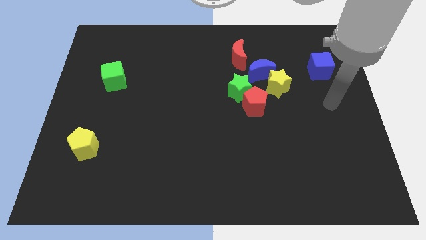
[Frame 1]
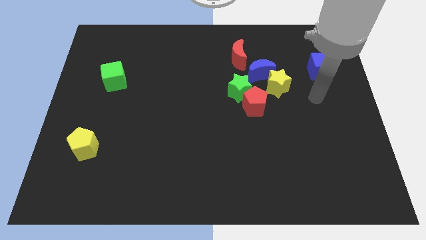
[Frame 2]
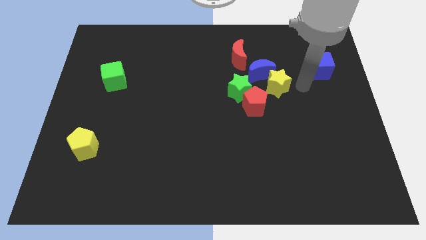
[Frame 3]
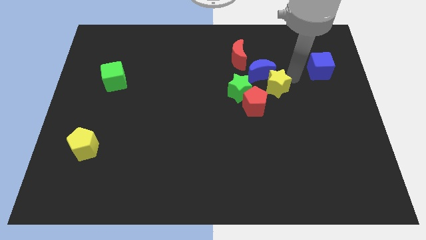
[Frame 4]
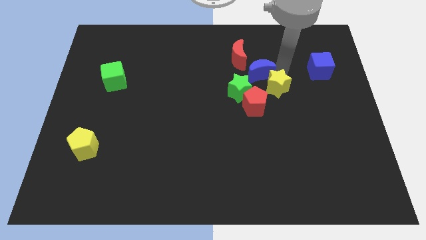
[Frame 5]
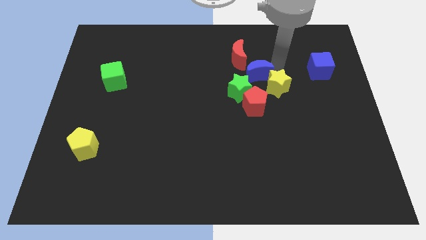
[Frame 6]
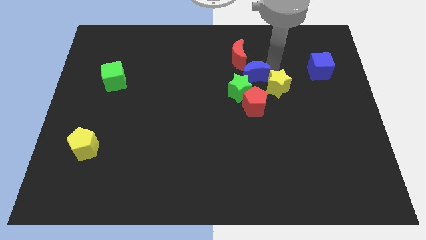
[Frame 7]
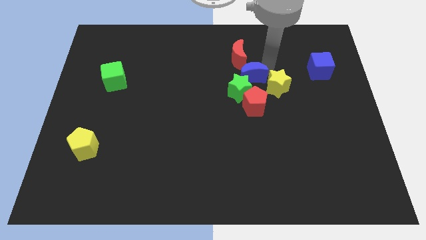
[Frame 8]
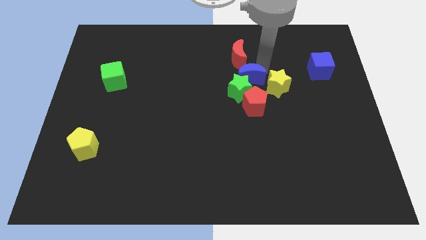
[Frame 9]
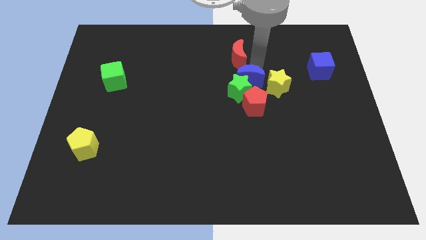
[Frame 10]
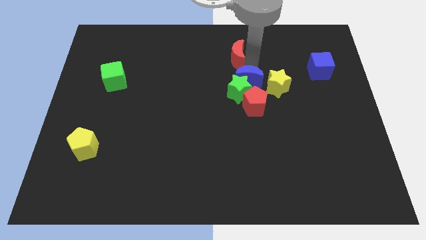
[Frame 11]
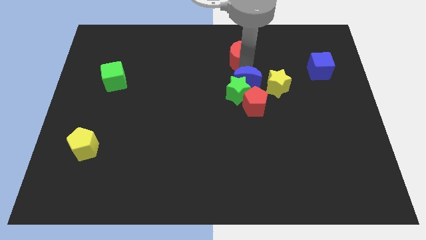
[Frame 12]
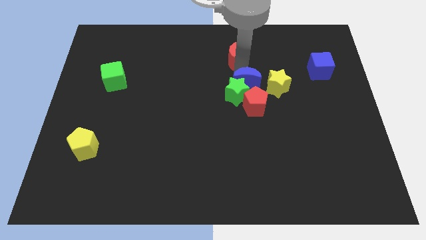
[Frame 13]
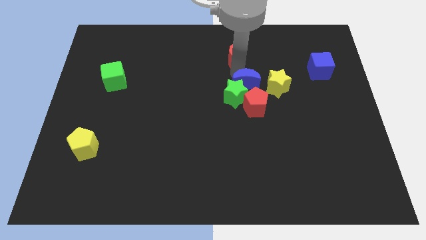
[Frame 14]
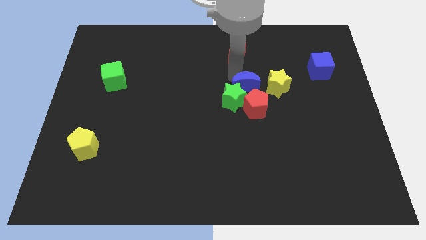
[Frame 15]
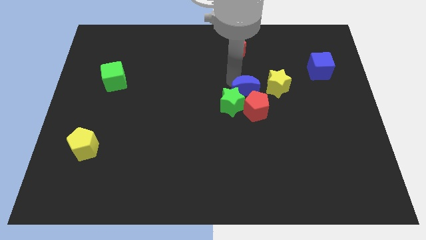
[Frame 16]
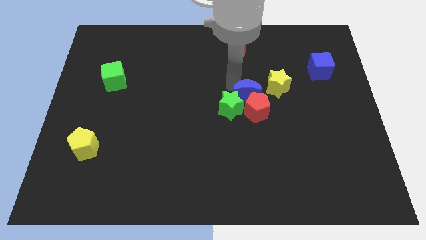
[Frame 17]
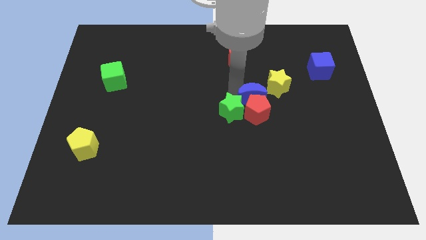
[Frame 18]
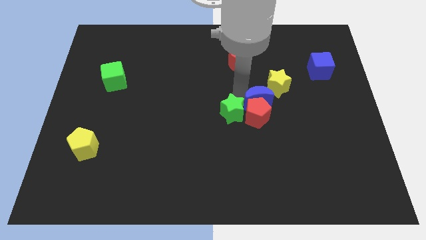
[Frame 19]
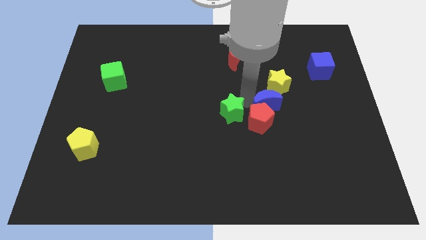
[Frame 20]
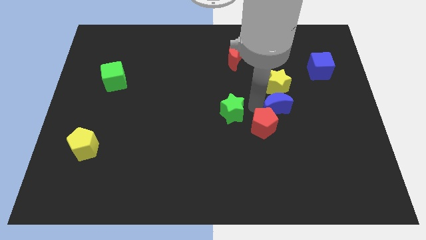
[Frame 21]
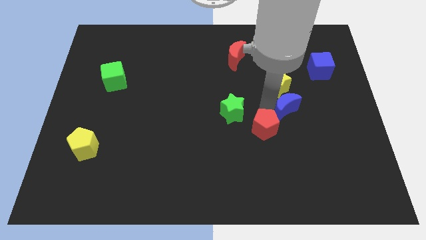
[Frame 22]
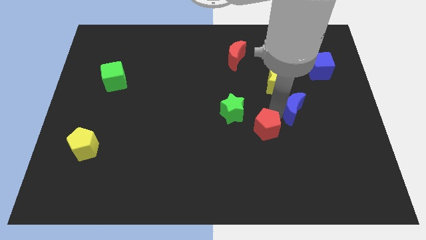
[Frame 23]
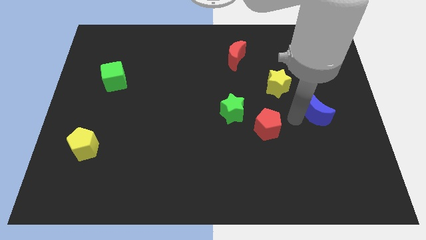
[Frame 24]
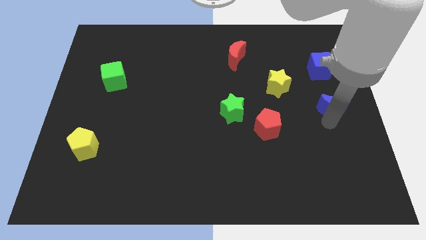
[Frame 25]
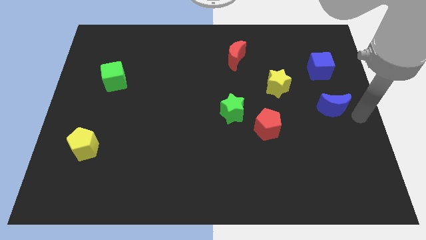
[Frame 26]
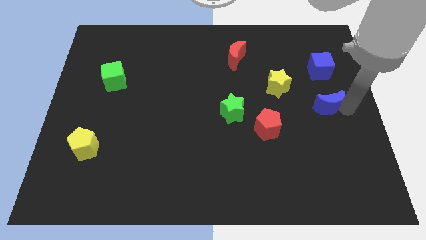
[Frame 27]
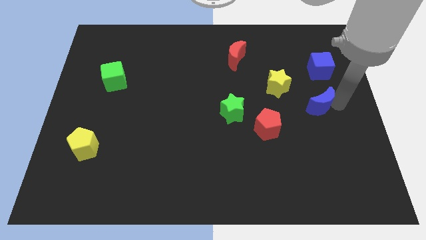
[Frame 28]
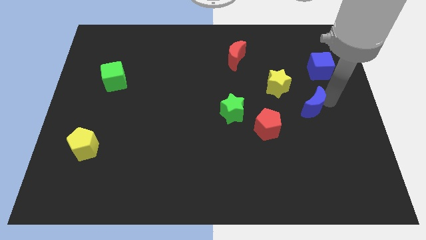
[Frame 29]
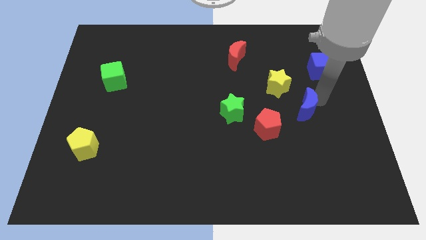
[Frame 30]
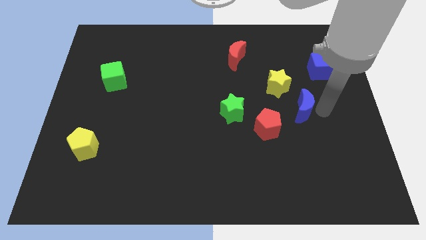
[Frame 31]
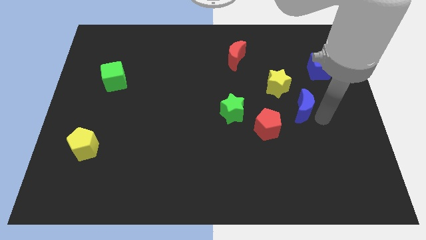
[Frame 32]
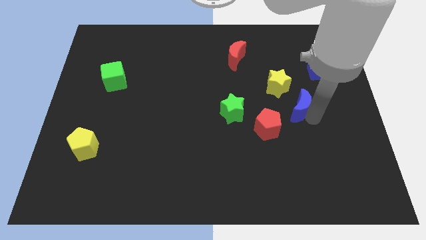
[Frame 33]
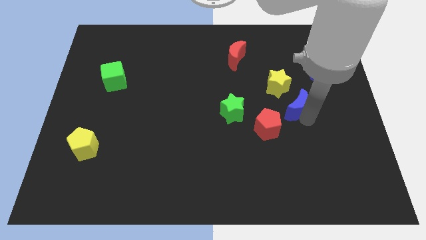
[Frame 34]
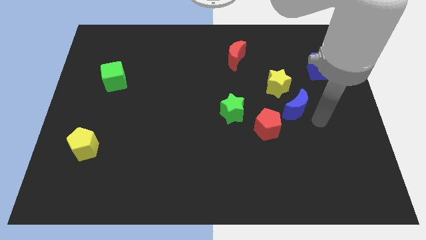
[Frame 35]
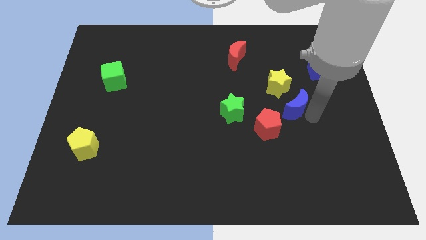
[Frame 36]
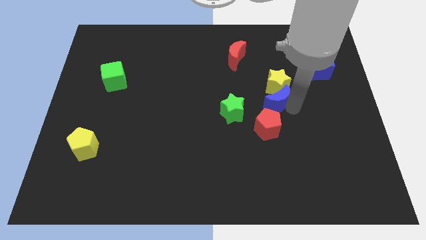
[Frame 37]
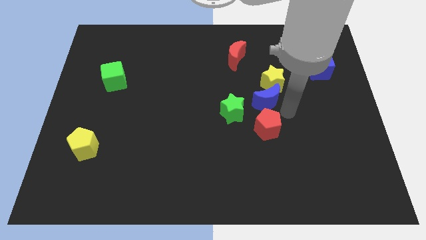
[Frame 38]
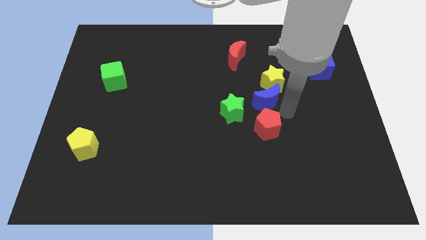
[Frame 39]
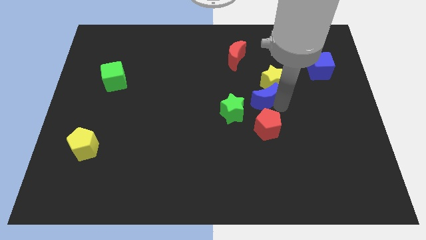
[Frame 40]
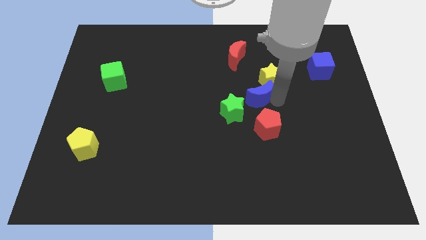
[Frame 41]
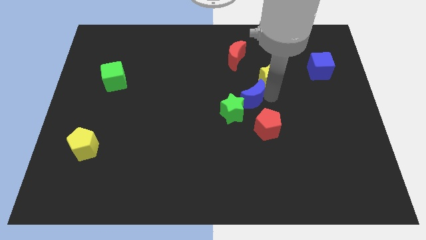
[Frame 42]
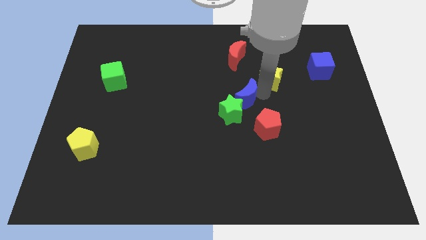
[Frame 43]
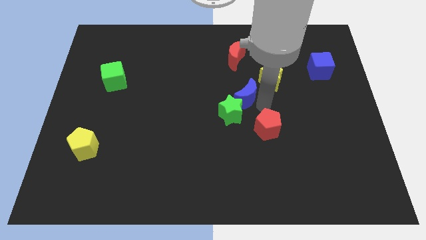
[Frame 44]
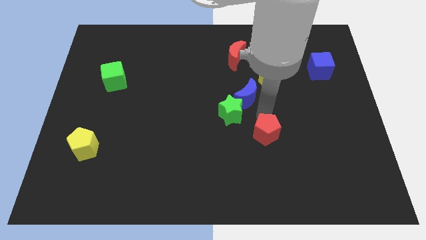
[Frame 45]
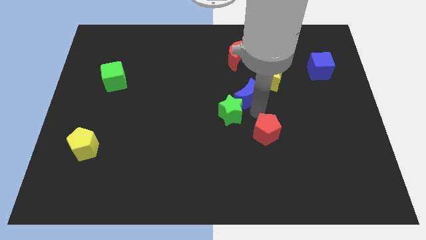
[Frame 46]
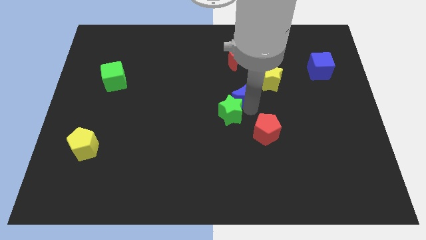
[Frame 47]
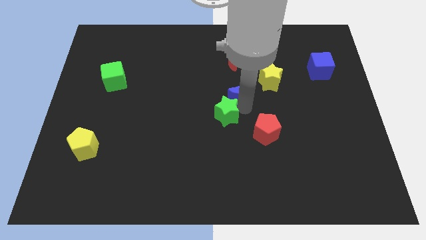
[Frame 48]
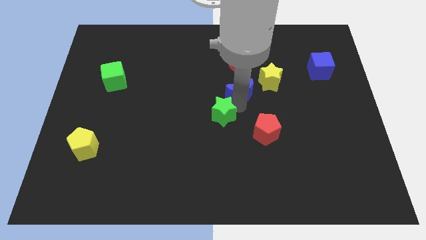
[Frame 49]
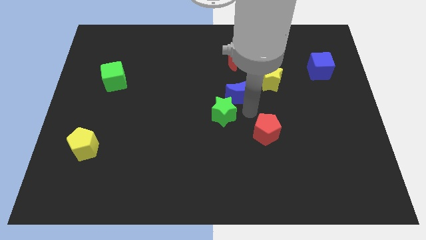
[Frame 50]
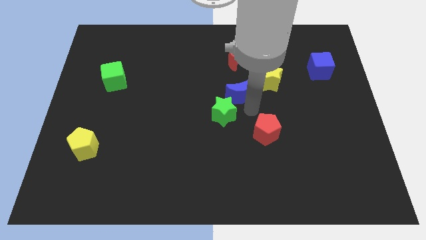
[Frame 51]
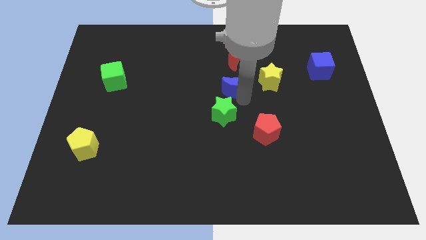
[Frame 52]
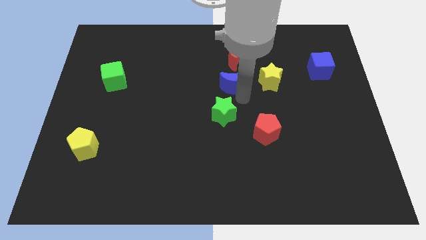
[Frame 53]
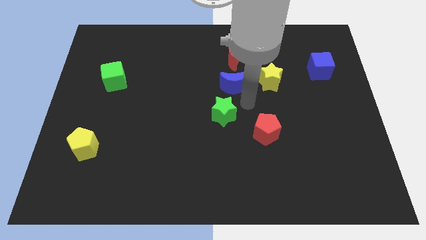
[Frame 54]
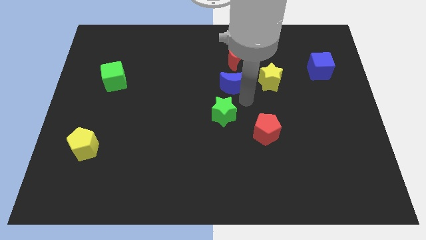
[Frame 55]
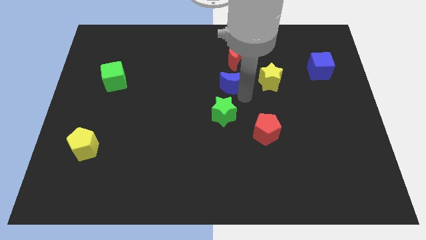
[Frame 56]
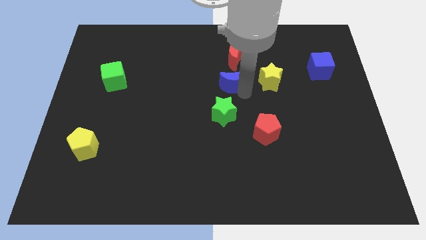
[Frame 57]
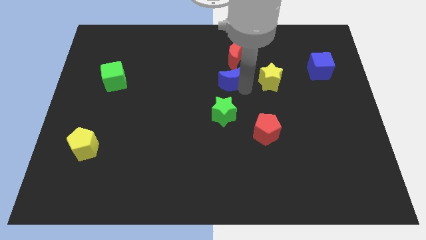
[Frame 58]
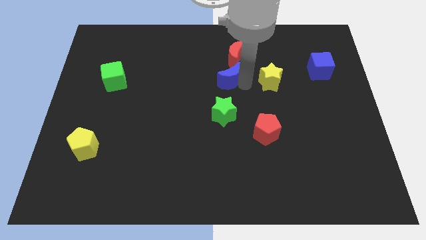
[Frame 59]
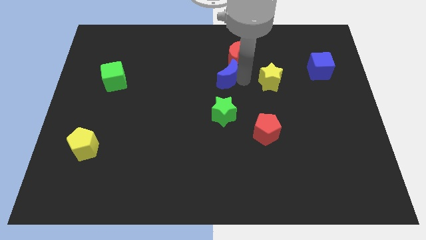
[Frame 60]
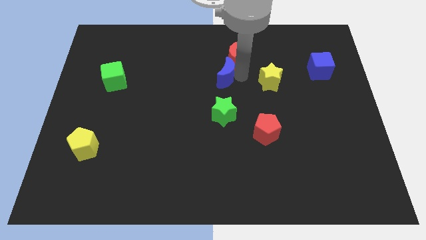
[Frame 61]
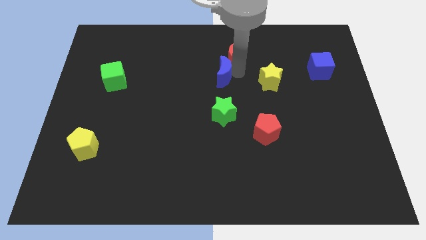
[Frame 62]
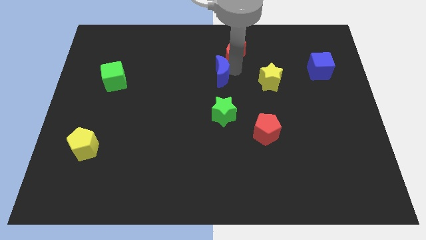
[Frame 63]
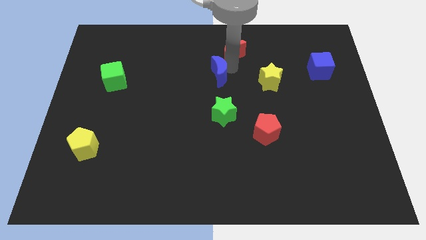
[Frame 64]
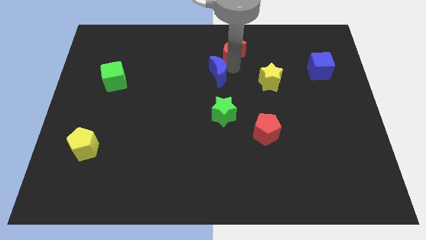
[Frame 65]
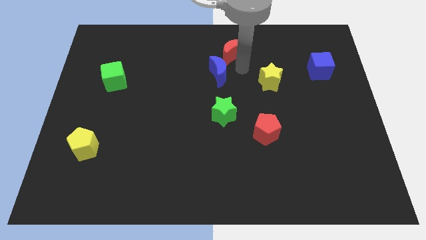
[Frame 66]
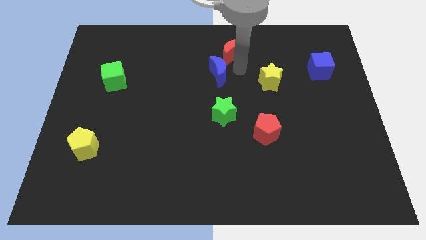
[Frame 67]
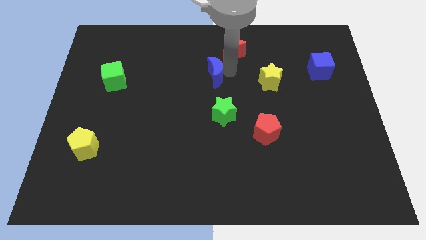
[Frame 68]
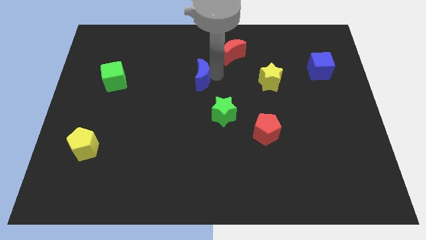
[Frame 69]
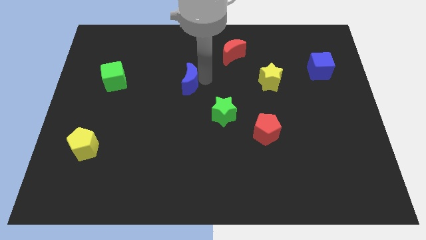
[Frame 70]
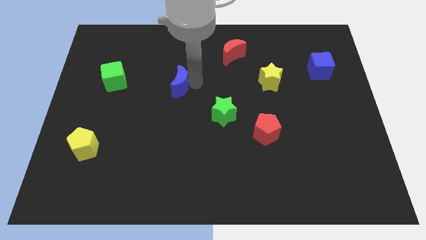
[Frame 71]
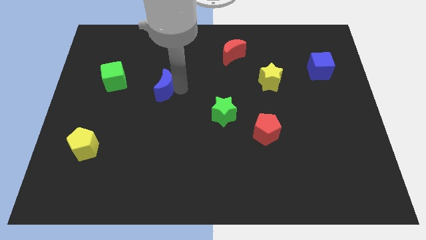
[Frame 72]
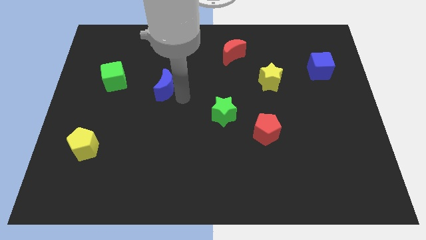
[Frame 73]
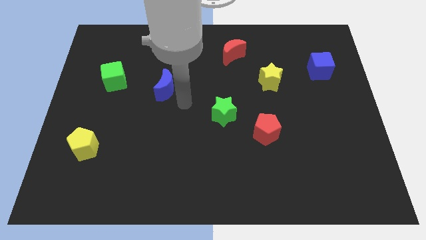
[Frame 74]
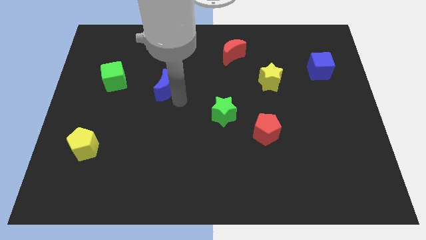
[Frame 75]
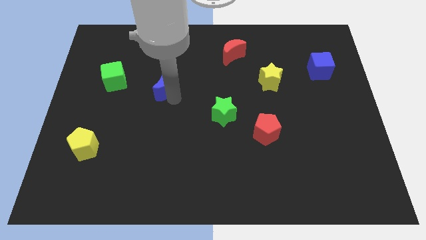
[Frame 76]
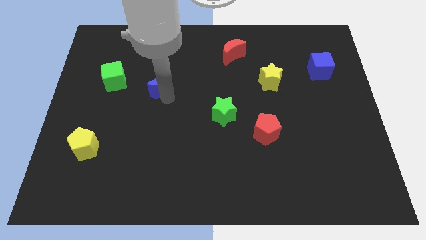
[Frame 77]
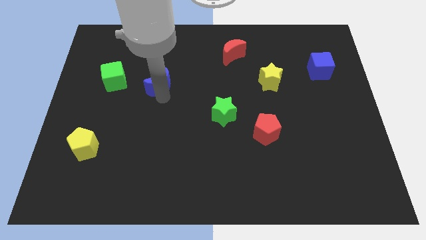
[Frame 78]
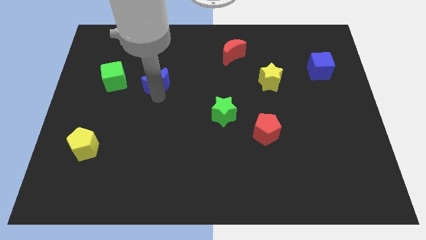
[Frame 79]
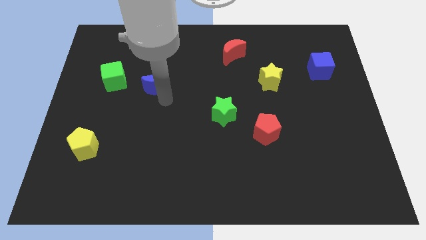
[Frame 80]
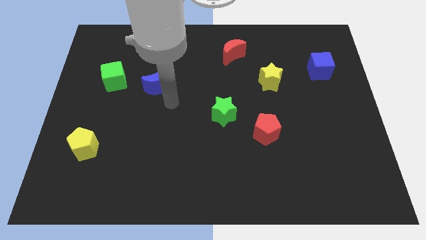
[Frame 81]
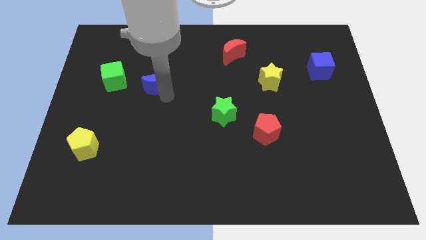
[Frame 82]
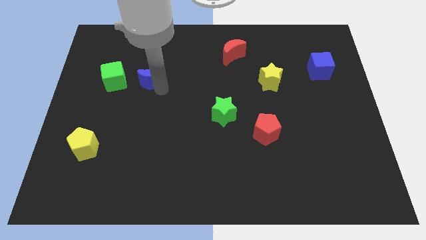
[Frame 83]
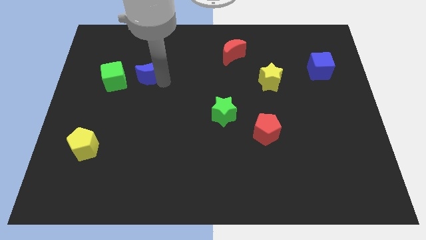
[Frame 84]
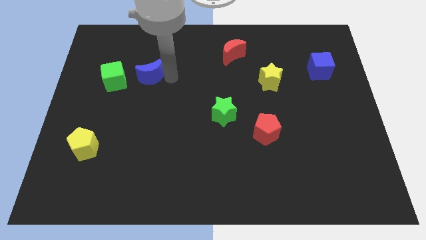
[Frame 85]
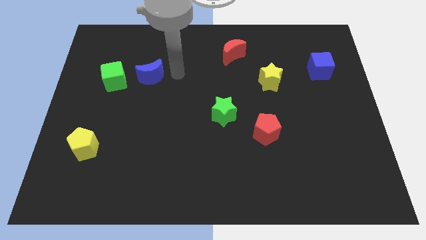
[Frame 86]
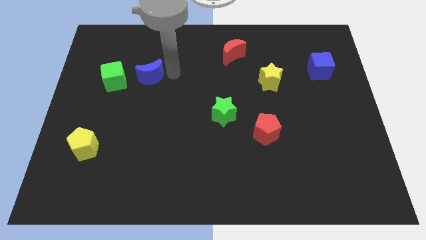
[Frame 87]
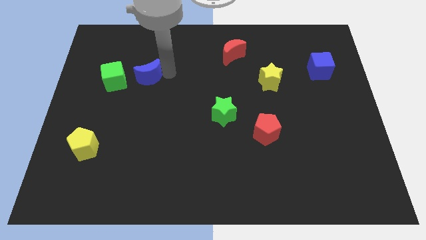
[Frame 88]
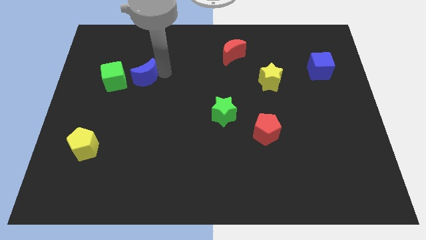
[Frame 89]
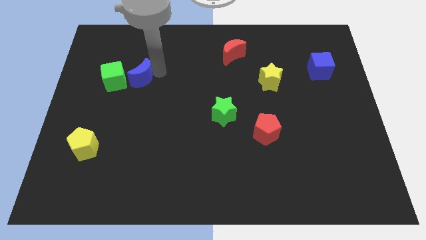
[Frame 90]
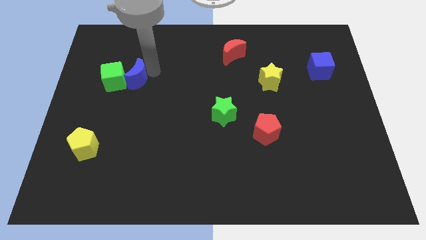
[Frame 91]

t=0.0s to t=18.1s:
slide the blue moon towards the green cube
